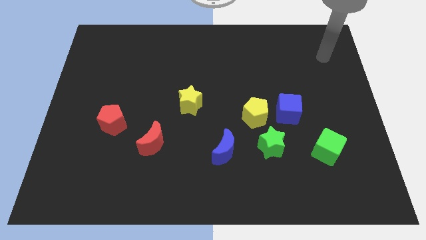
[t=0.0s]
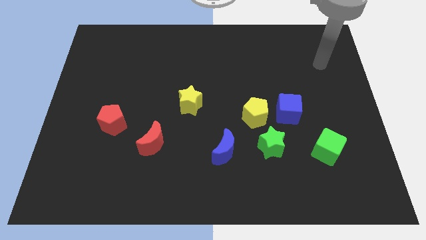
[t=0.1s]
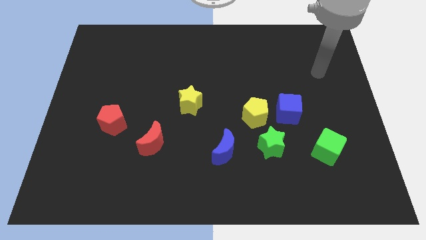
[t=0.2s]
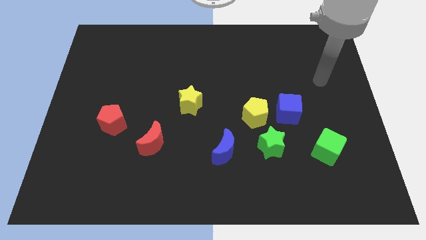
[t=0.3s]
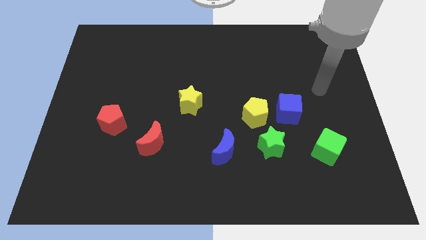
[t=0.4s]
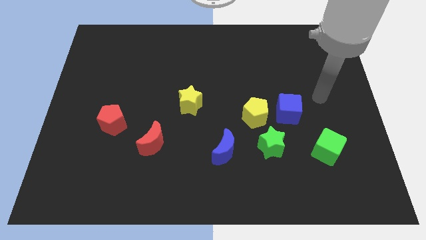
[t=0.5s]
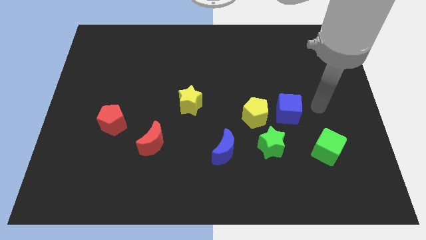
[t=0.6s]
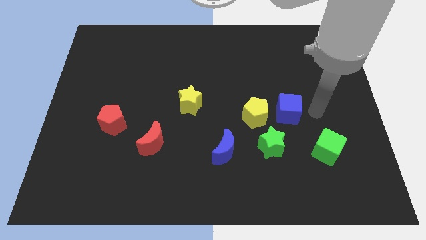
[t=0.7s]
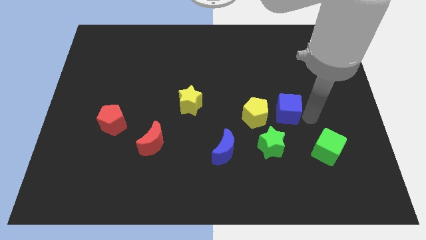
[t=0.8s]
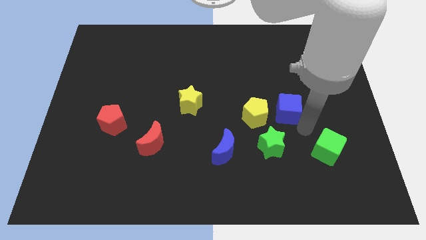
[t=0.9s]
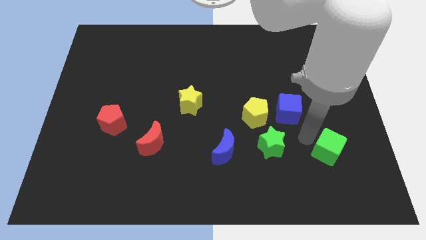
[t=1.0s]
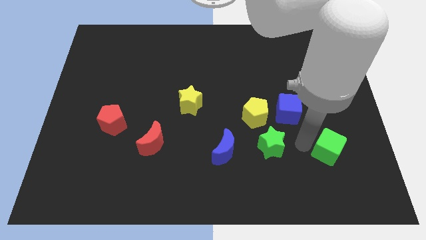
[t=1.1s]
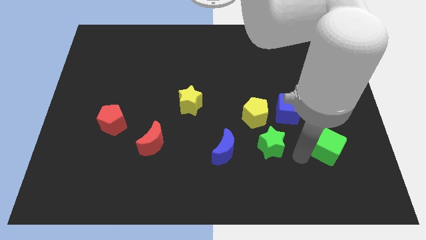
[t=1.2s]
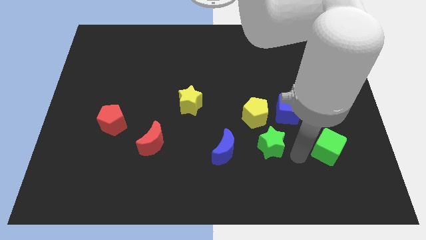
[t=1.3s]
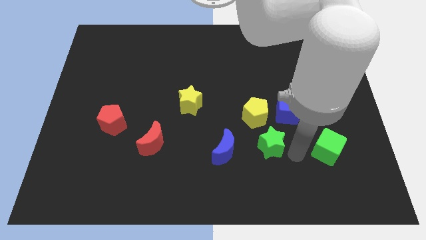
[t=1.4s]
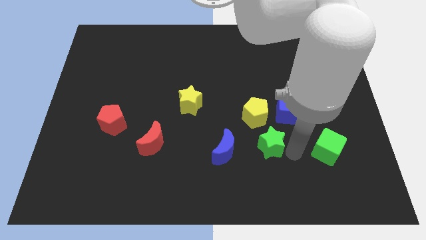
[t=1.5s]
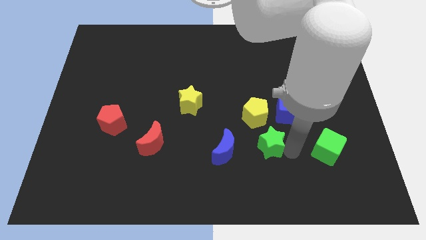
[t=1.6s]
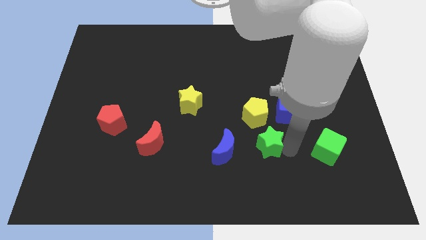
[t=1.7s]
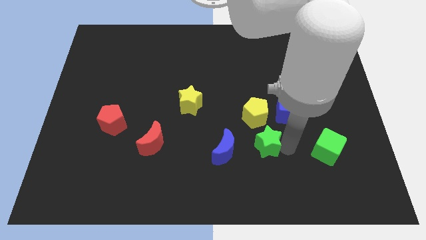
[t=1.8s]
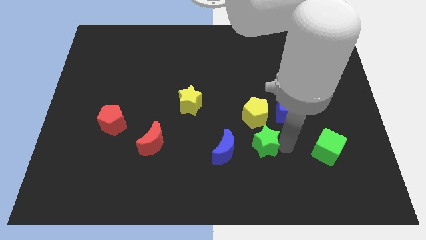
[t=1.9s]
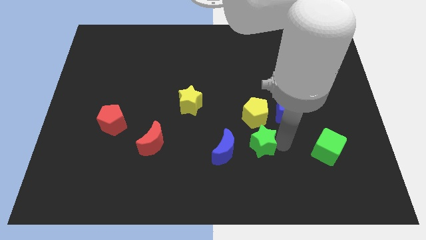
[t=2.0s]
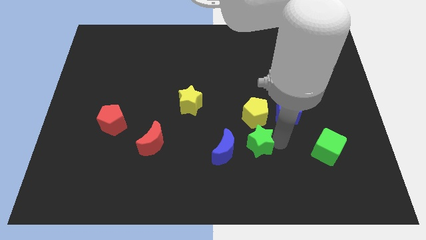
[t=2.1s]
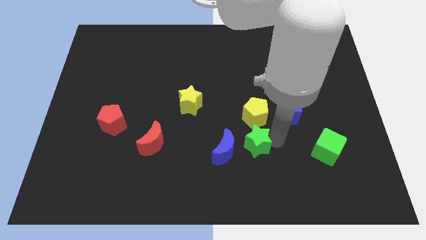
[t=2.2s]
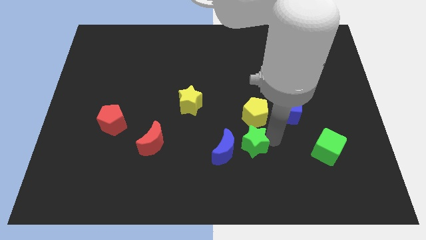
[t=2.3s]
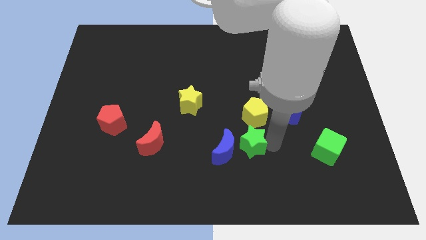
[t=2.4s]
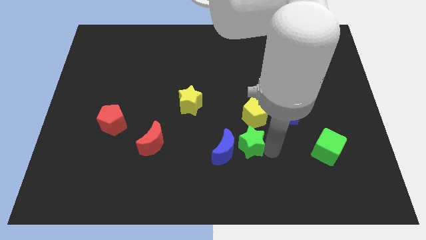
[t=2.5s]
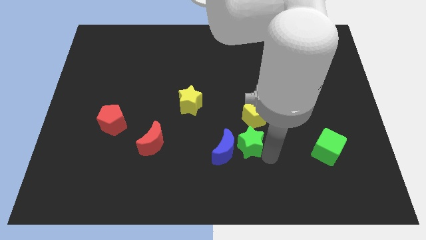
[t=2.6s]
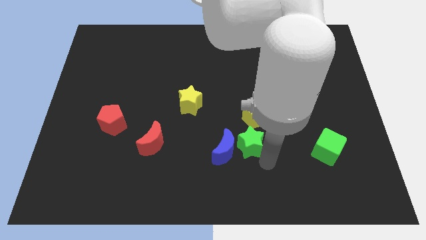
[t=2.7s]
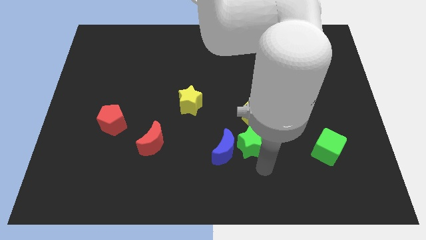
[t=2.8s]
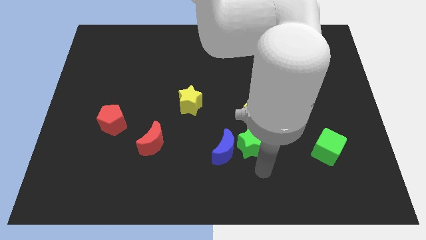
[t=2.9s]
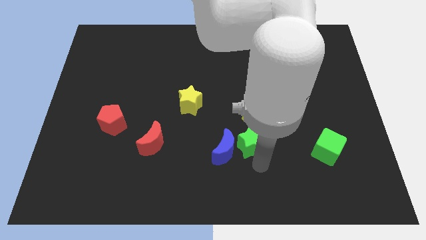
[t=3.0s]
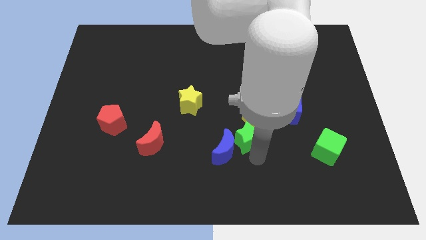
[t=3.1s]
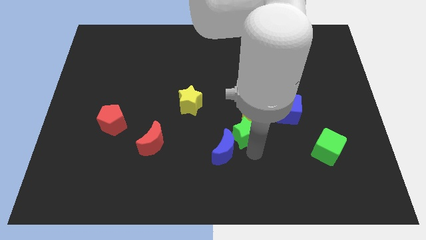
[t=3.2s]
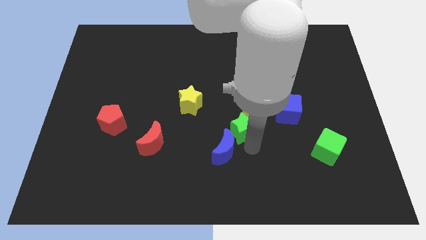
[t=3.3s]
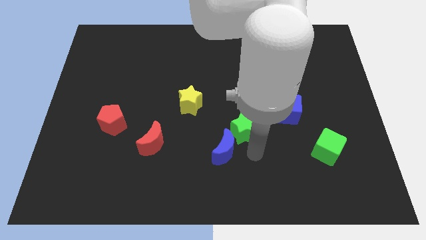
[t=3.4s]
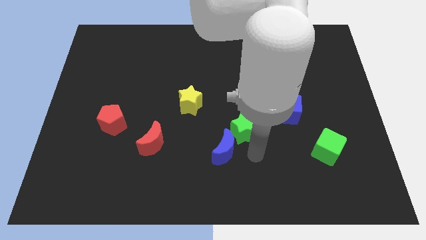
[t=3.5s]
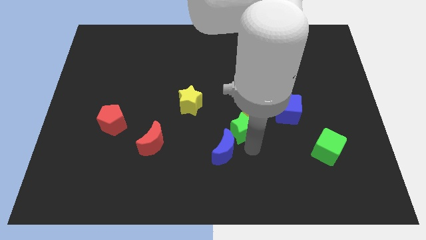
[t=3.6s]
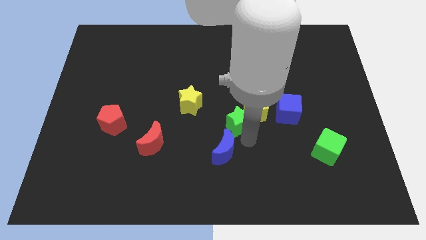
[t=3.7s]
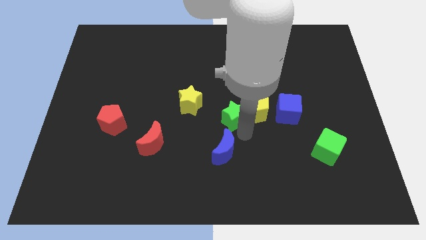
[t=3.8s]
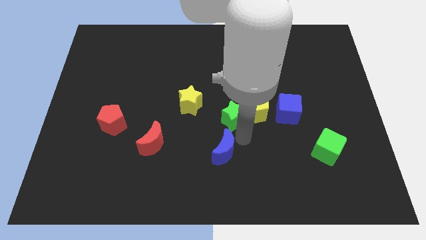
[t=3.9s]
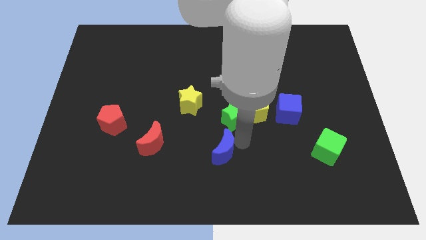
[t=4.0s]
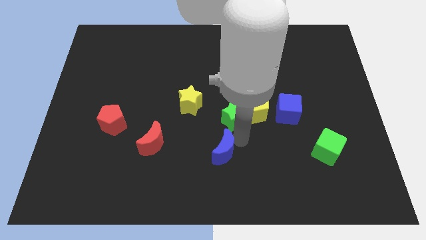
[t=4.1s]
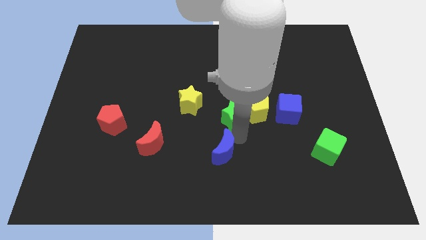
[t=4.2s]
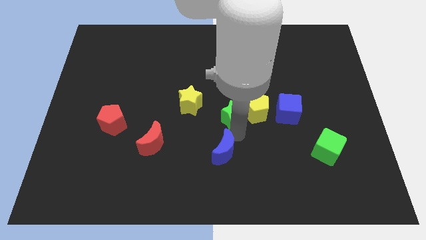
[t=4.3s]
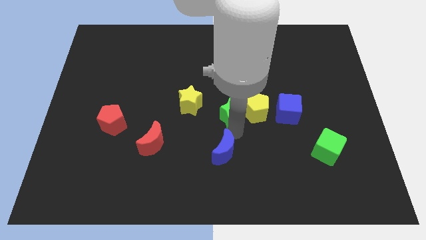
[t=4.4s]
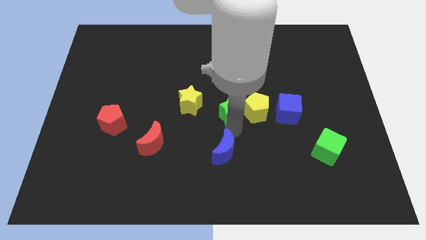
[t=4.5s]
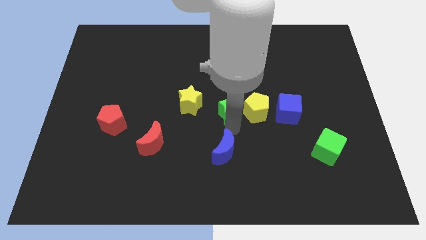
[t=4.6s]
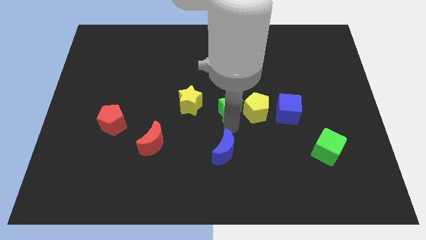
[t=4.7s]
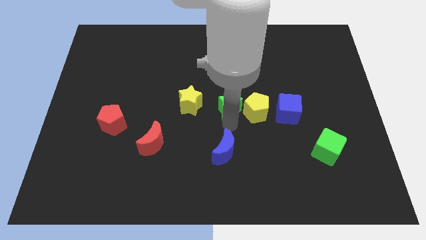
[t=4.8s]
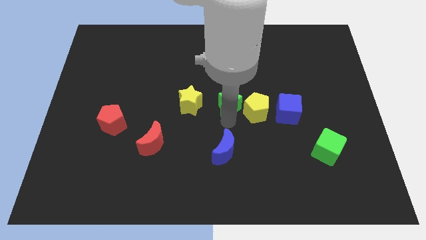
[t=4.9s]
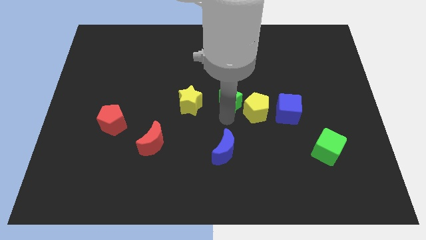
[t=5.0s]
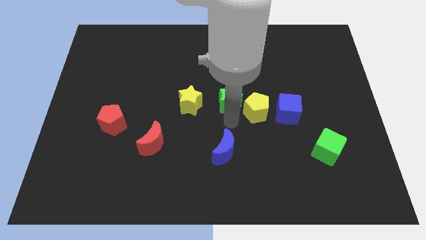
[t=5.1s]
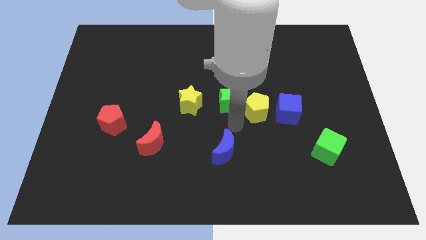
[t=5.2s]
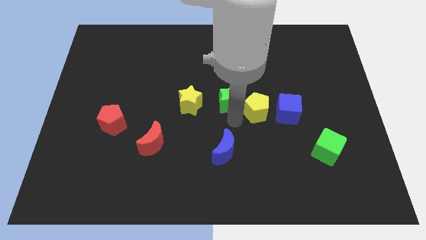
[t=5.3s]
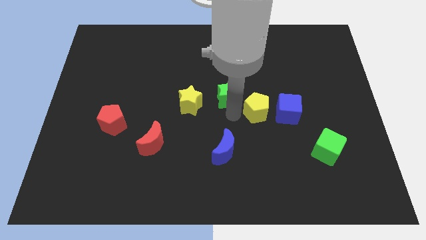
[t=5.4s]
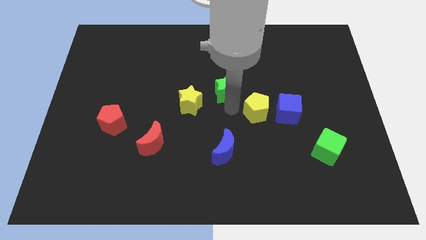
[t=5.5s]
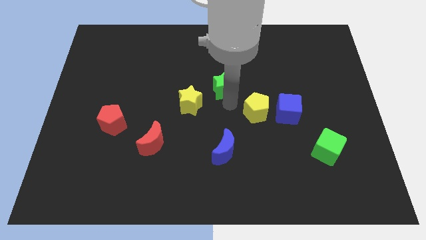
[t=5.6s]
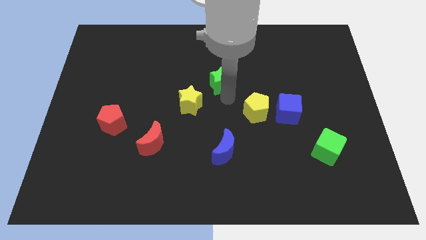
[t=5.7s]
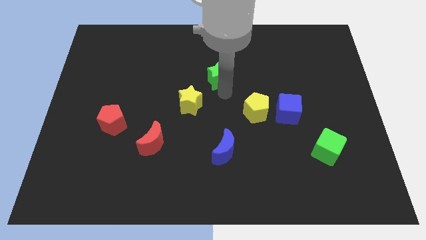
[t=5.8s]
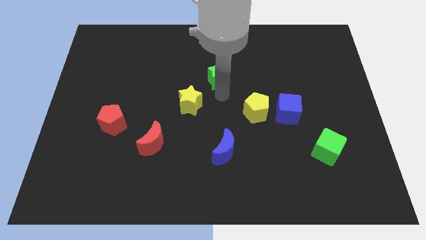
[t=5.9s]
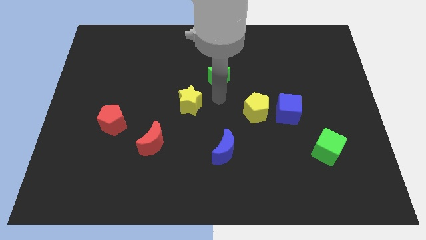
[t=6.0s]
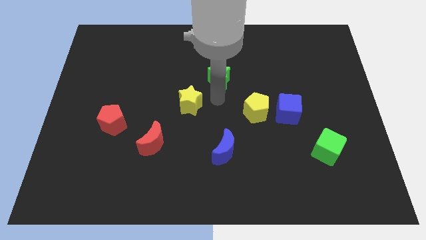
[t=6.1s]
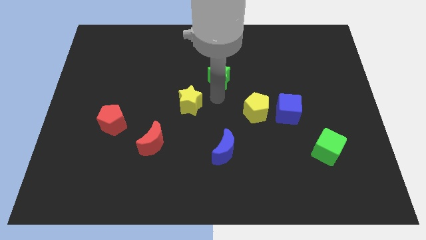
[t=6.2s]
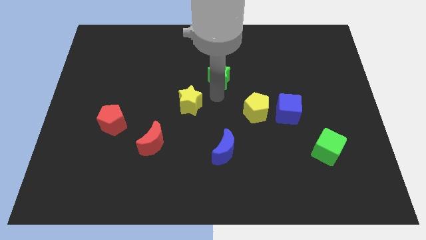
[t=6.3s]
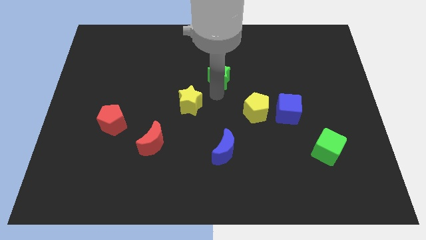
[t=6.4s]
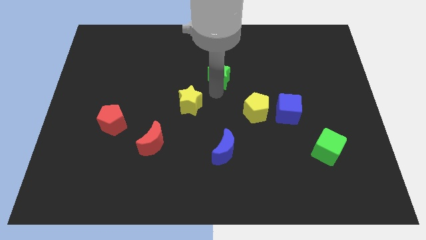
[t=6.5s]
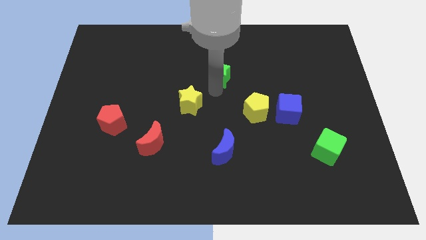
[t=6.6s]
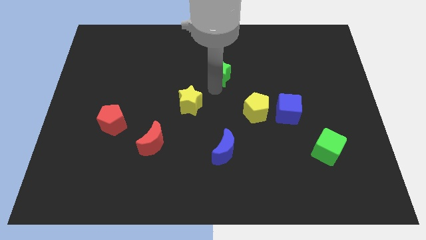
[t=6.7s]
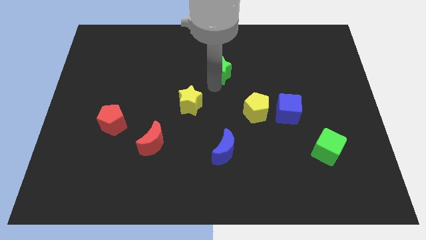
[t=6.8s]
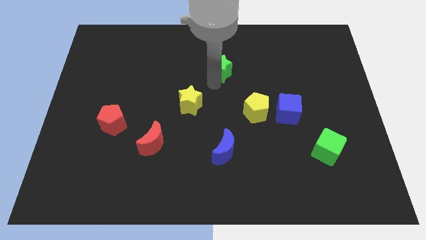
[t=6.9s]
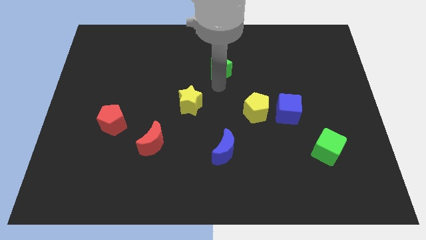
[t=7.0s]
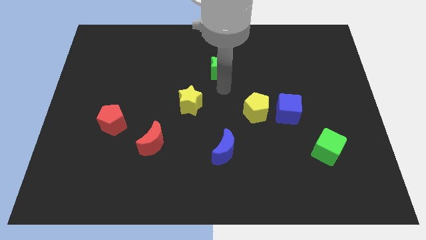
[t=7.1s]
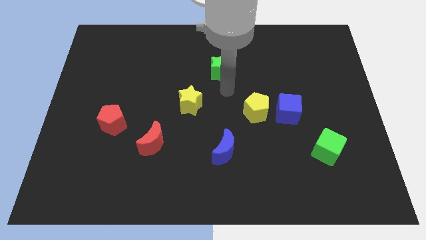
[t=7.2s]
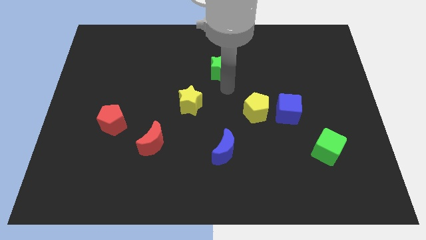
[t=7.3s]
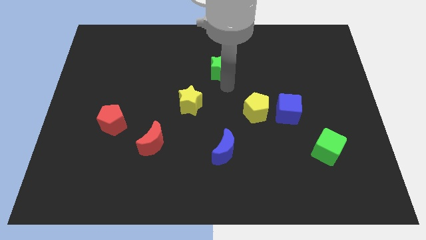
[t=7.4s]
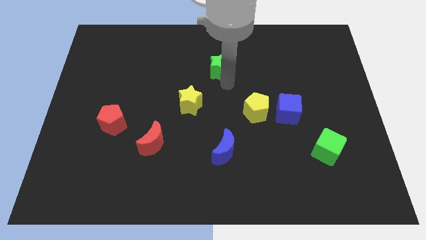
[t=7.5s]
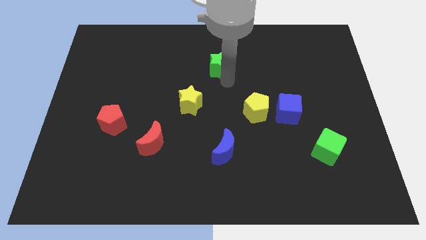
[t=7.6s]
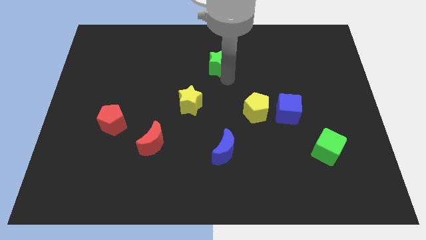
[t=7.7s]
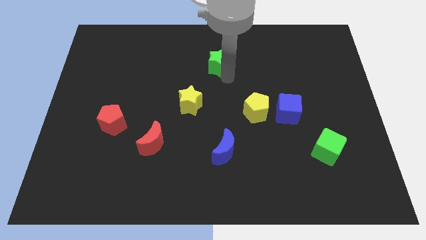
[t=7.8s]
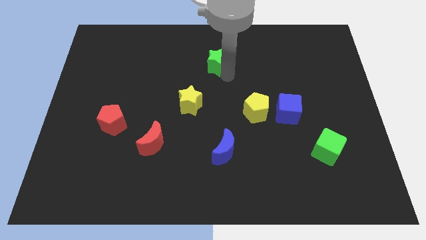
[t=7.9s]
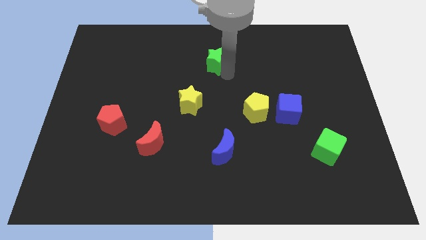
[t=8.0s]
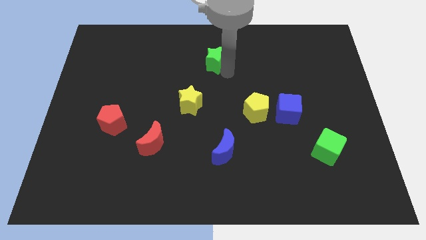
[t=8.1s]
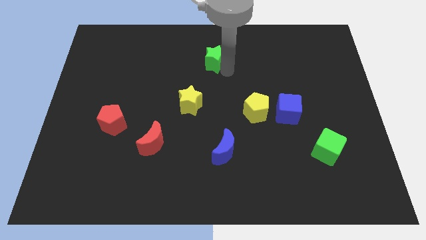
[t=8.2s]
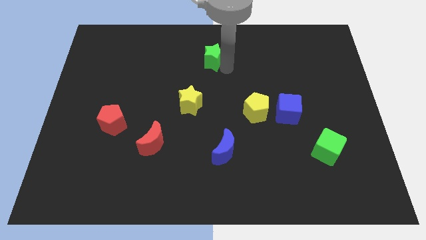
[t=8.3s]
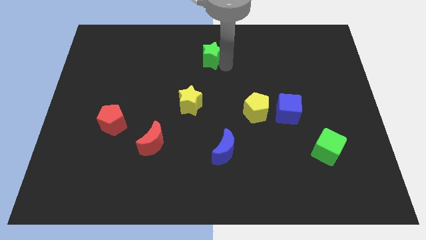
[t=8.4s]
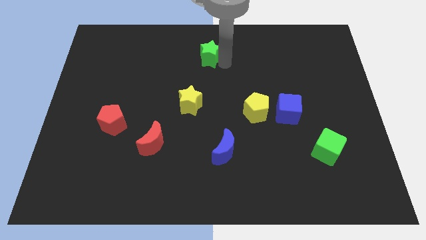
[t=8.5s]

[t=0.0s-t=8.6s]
move the green star to the top side
